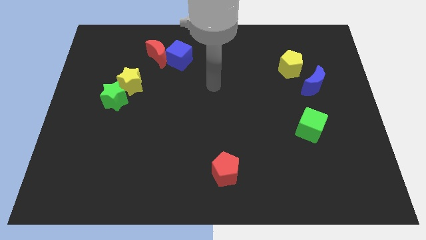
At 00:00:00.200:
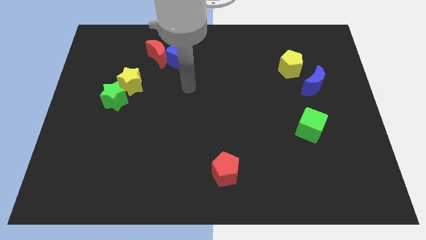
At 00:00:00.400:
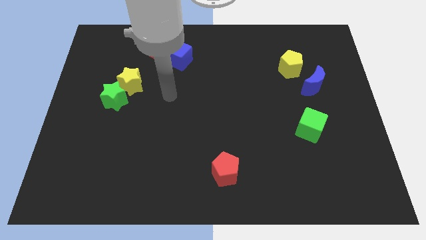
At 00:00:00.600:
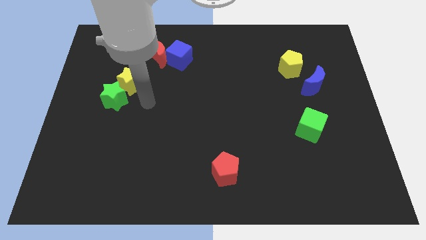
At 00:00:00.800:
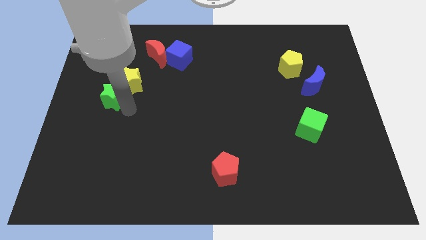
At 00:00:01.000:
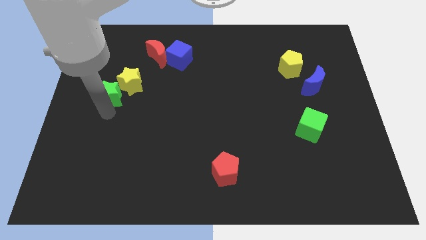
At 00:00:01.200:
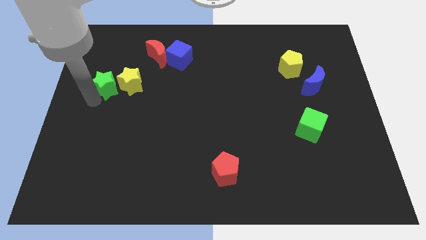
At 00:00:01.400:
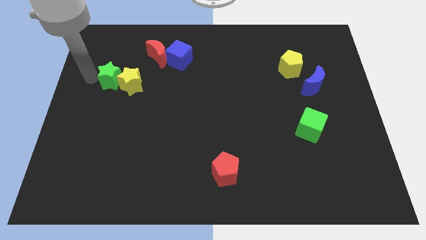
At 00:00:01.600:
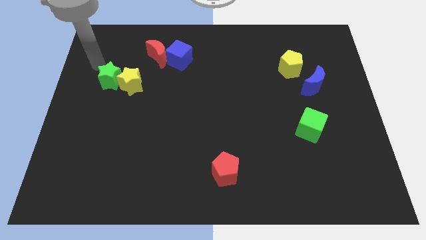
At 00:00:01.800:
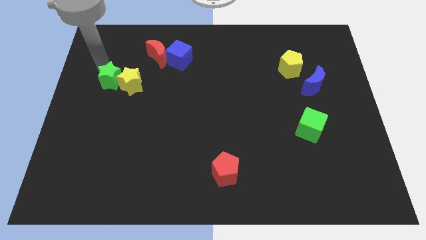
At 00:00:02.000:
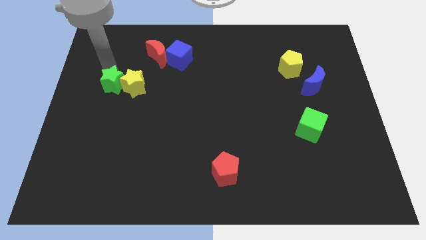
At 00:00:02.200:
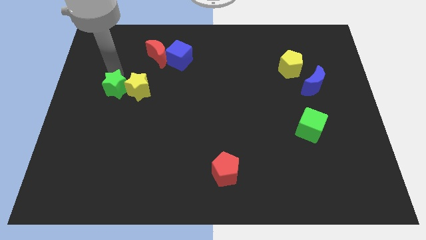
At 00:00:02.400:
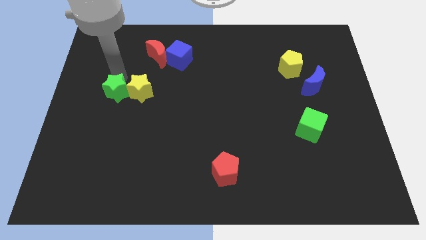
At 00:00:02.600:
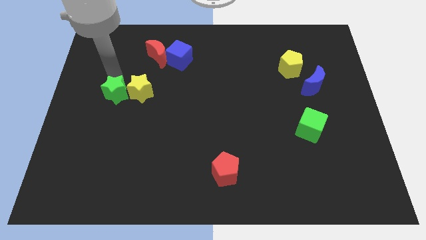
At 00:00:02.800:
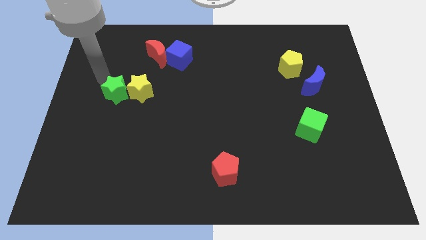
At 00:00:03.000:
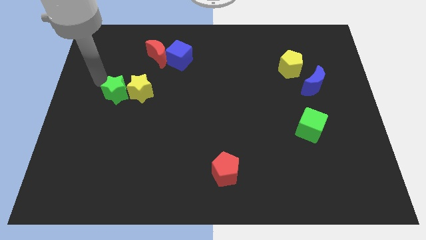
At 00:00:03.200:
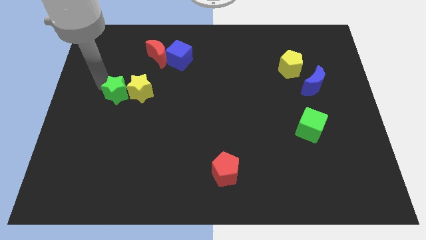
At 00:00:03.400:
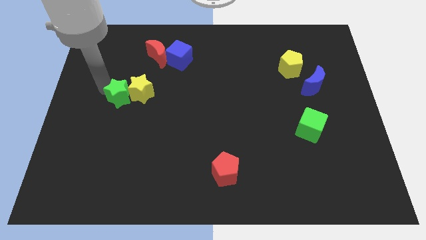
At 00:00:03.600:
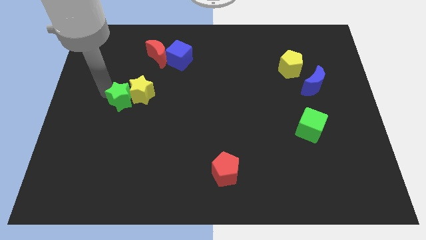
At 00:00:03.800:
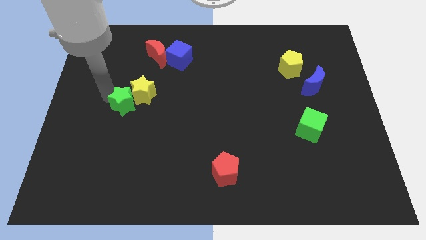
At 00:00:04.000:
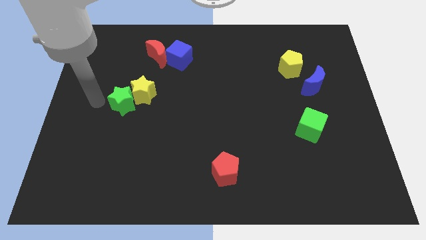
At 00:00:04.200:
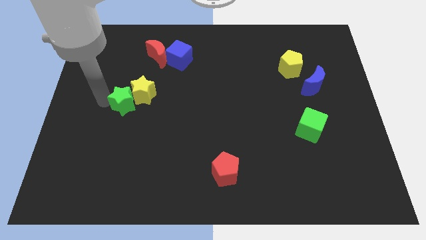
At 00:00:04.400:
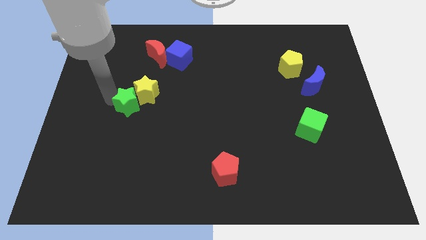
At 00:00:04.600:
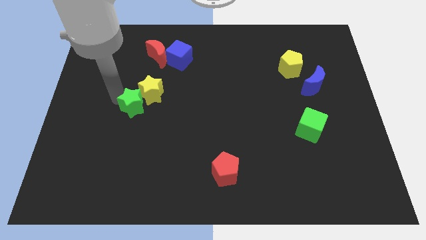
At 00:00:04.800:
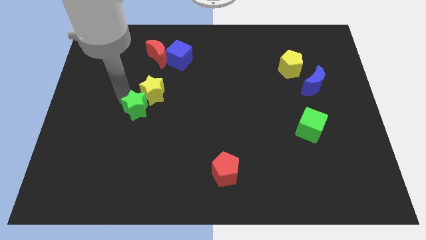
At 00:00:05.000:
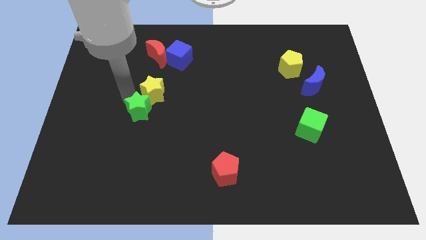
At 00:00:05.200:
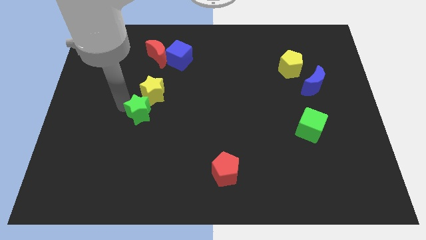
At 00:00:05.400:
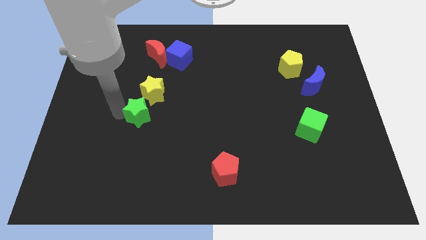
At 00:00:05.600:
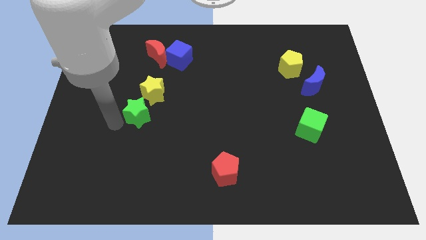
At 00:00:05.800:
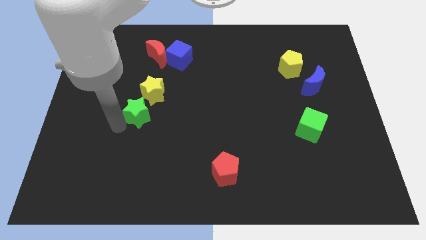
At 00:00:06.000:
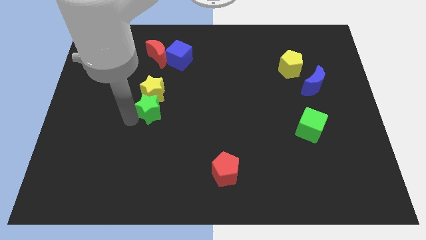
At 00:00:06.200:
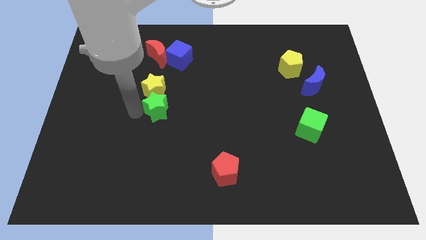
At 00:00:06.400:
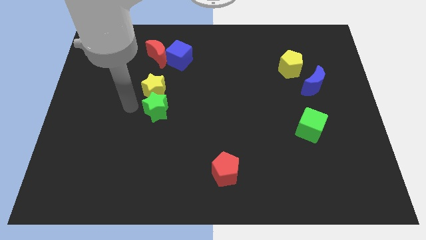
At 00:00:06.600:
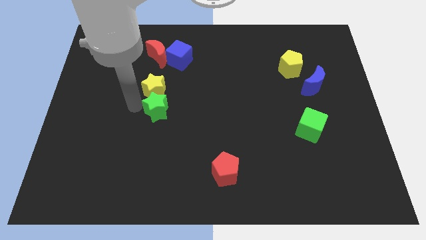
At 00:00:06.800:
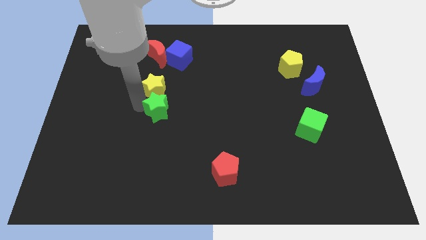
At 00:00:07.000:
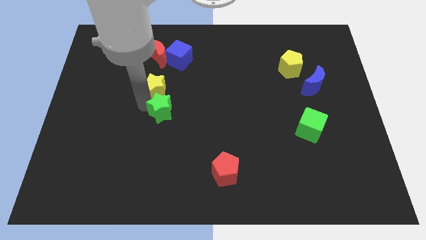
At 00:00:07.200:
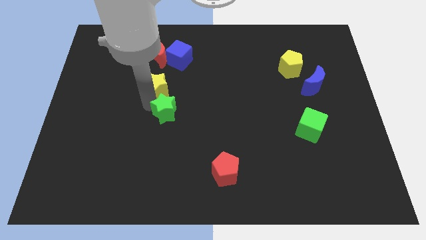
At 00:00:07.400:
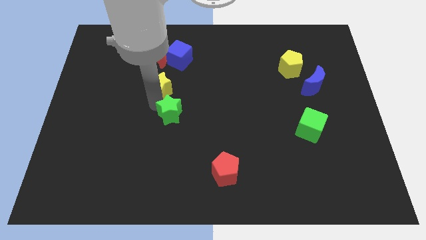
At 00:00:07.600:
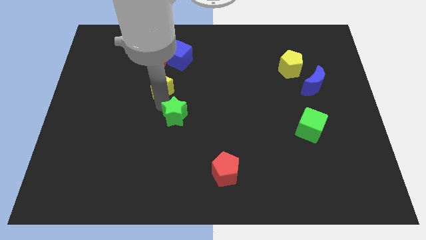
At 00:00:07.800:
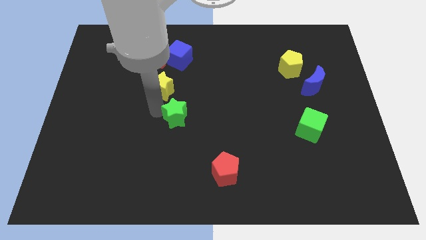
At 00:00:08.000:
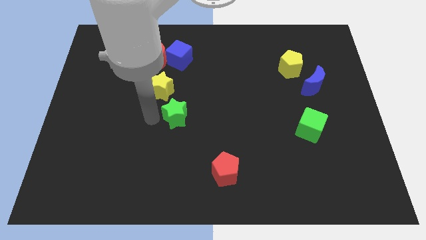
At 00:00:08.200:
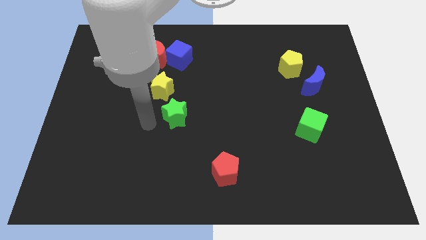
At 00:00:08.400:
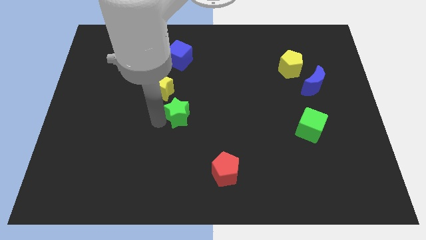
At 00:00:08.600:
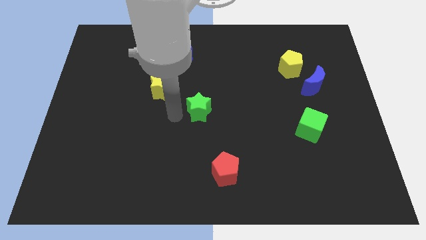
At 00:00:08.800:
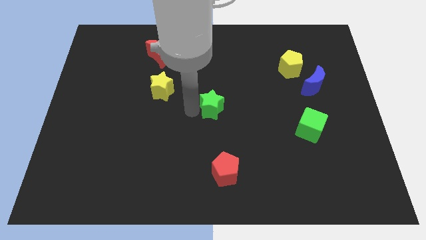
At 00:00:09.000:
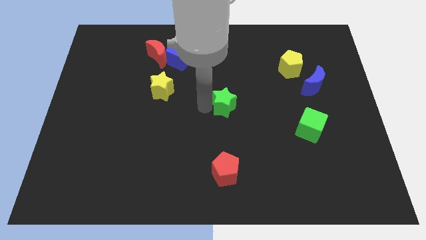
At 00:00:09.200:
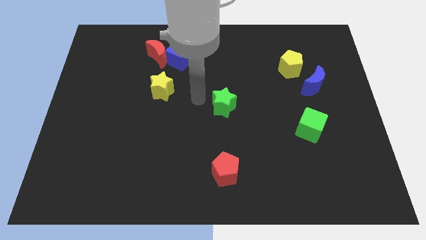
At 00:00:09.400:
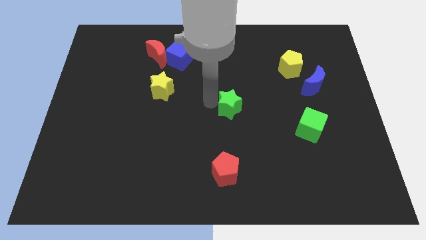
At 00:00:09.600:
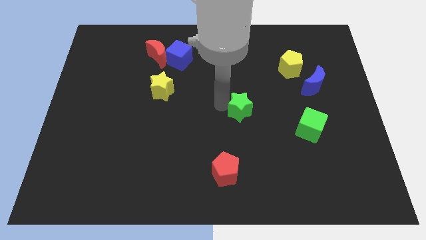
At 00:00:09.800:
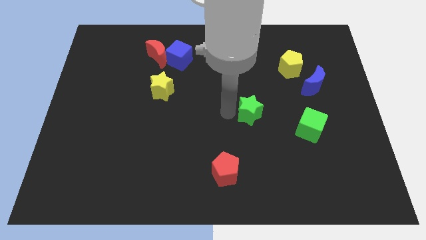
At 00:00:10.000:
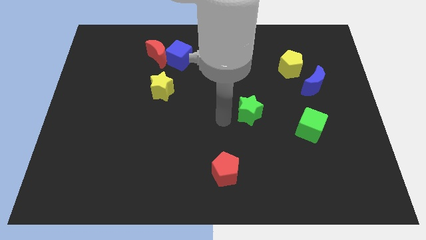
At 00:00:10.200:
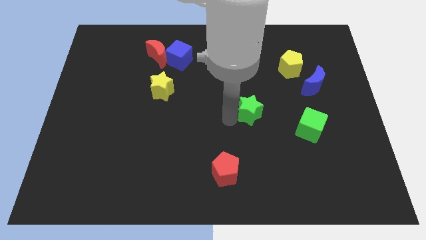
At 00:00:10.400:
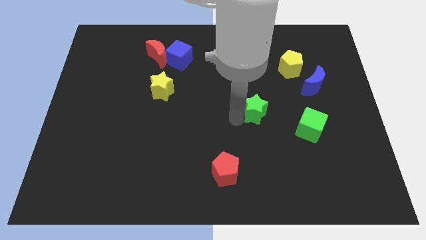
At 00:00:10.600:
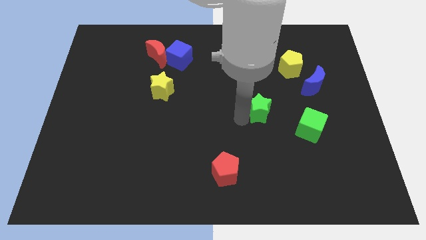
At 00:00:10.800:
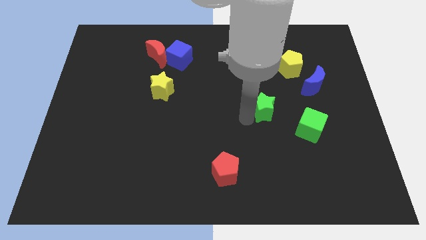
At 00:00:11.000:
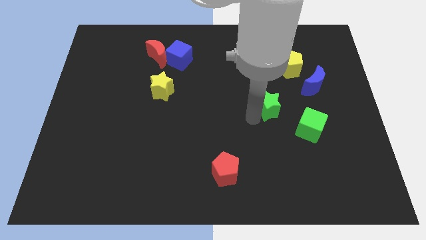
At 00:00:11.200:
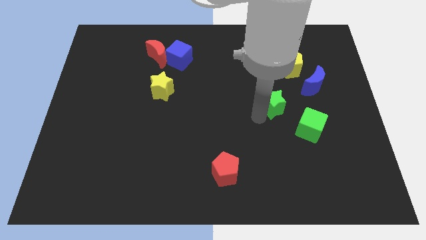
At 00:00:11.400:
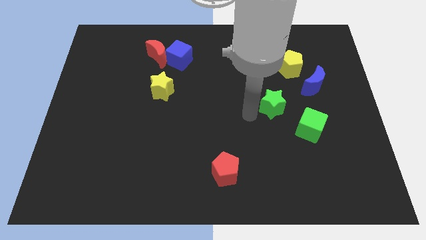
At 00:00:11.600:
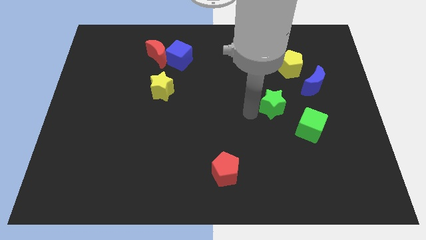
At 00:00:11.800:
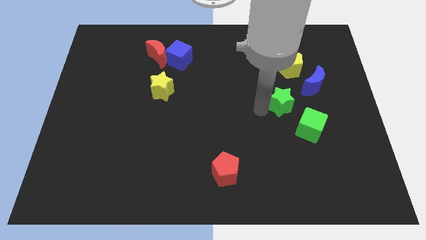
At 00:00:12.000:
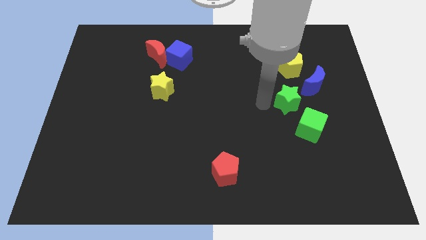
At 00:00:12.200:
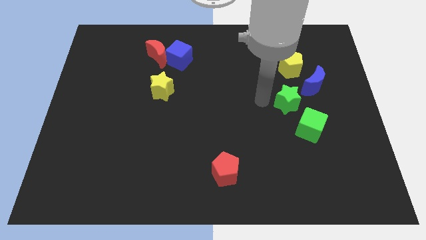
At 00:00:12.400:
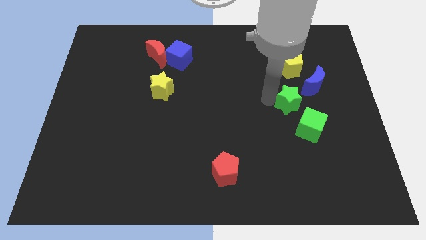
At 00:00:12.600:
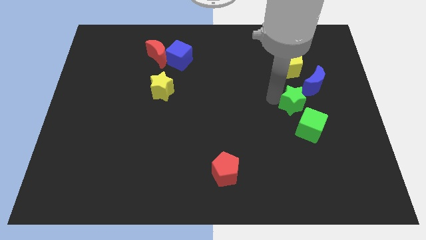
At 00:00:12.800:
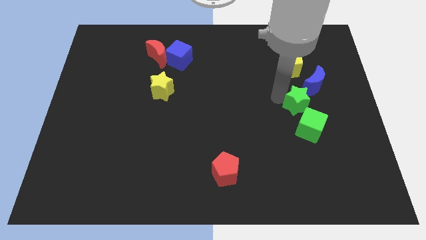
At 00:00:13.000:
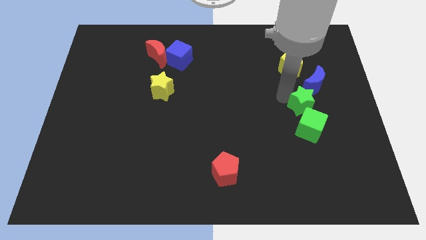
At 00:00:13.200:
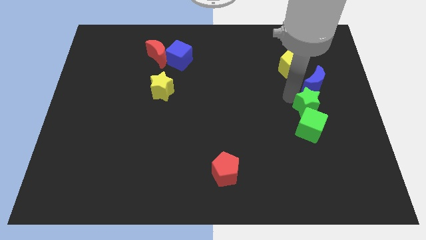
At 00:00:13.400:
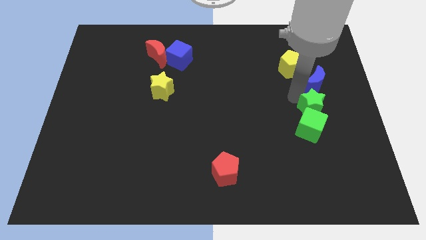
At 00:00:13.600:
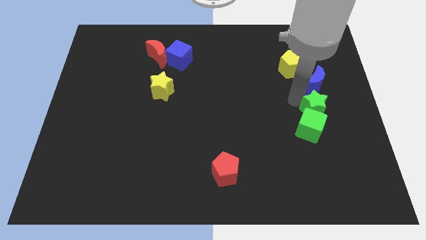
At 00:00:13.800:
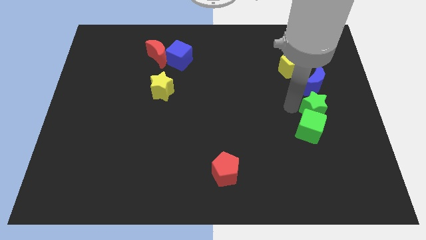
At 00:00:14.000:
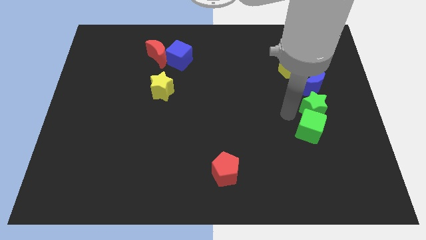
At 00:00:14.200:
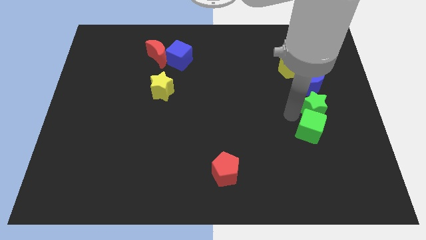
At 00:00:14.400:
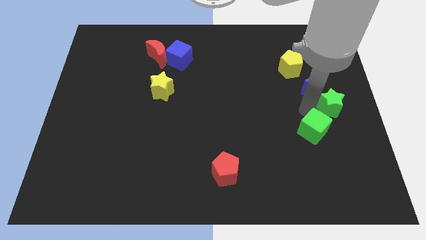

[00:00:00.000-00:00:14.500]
push the green star to the right side
